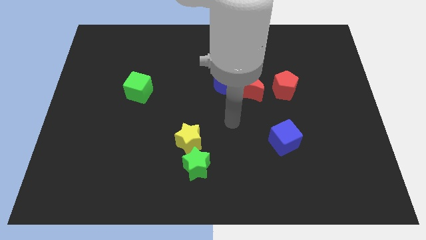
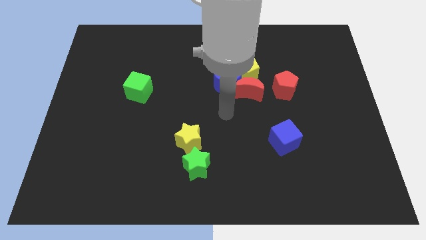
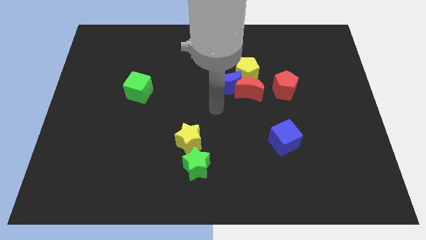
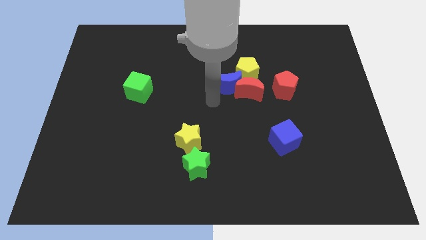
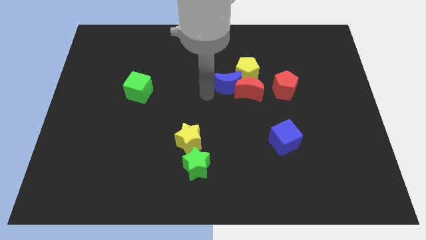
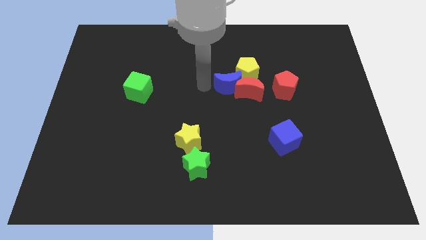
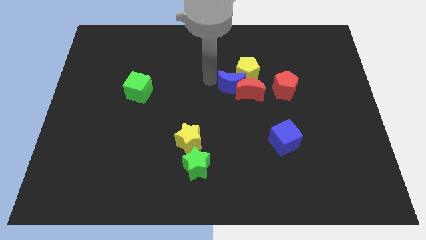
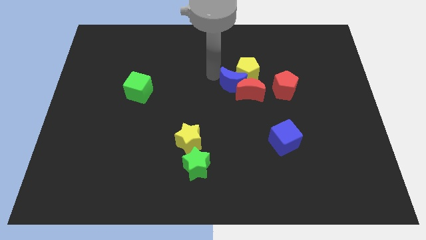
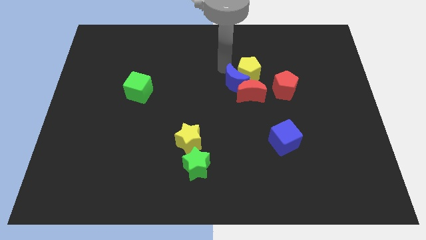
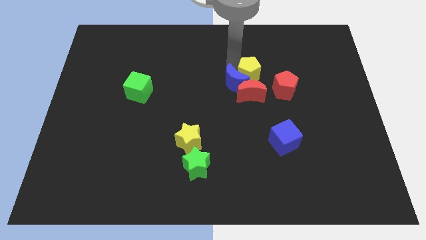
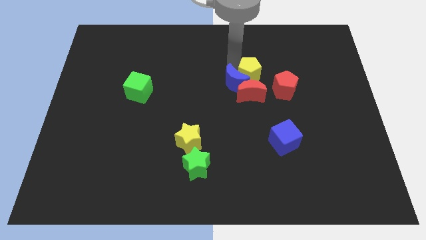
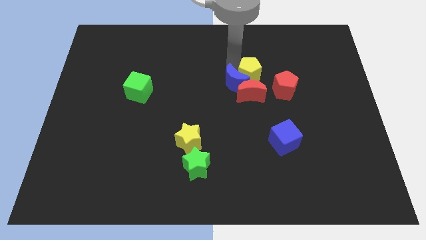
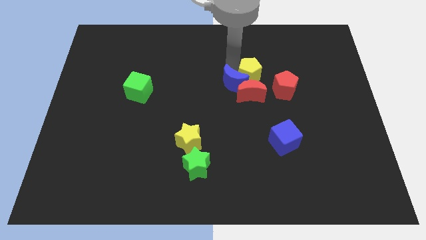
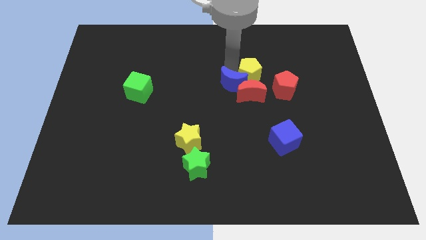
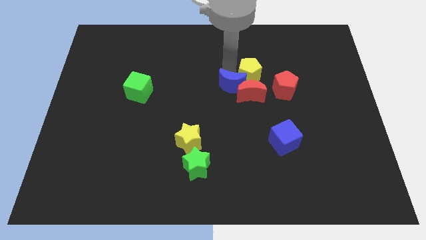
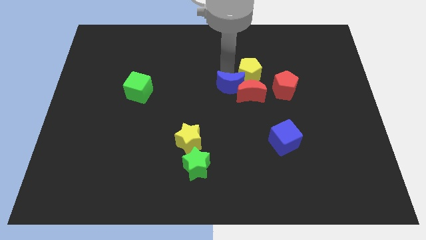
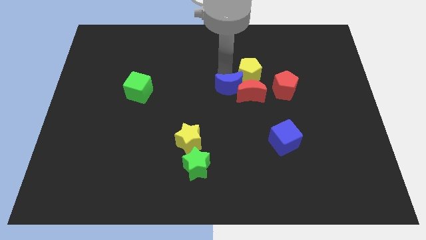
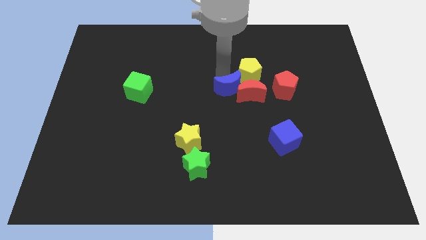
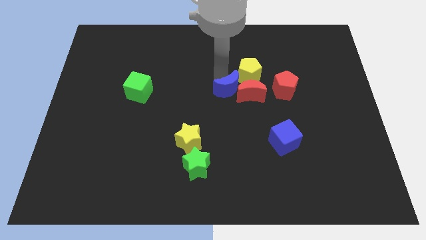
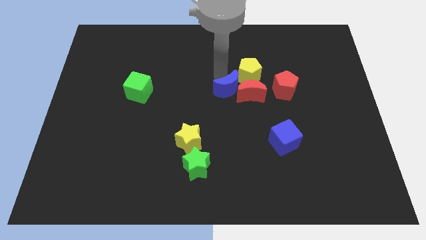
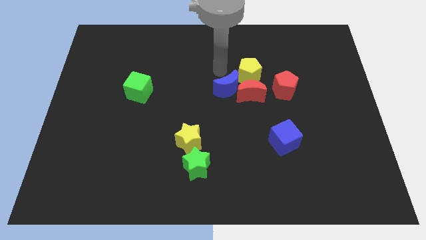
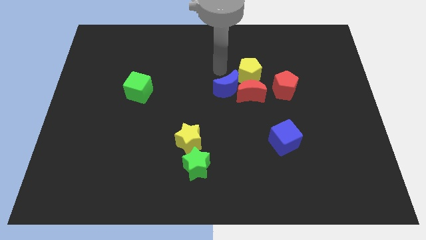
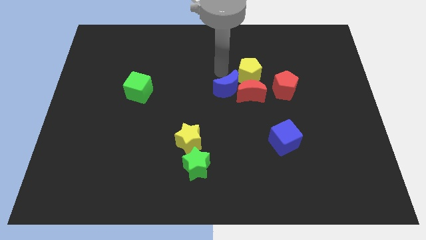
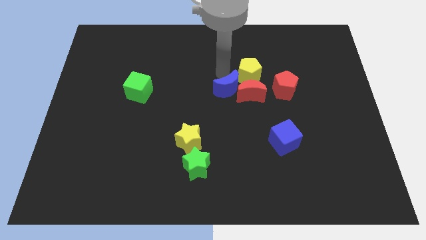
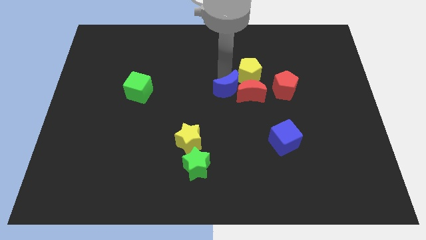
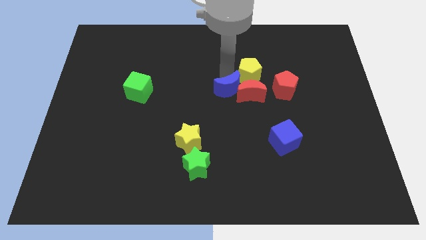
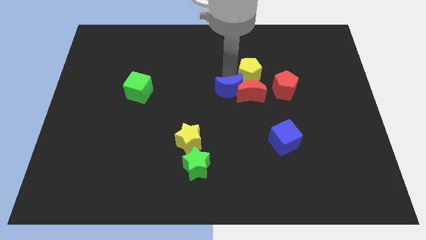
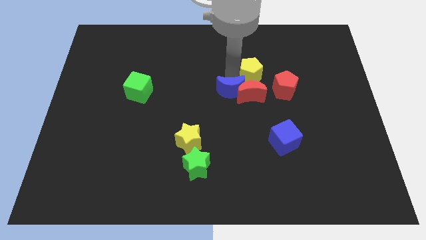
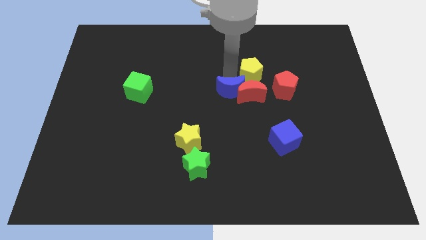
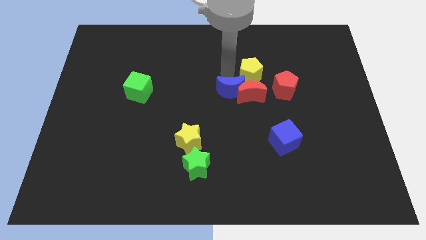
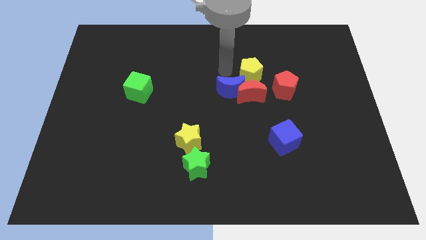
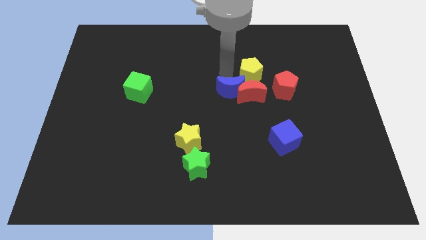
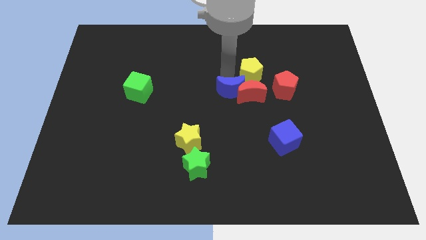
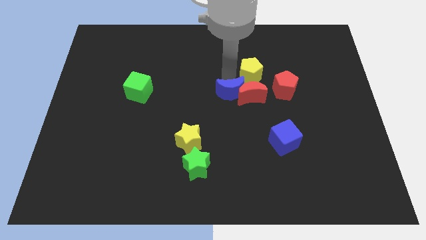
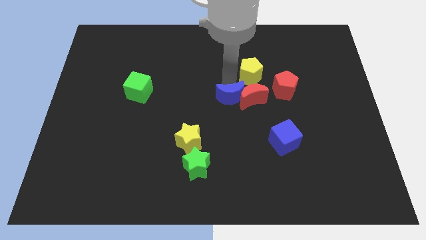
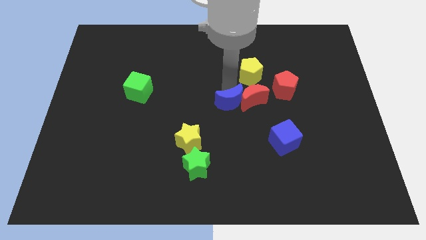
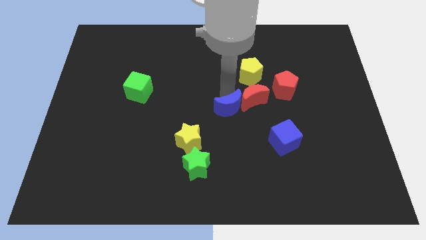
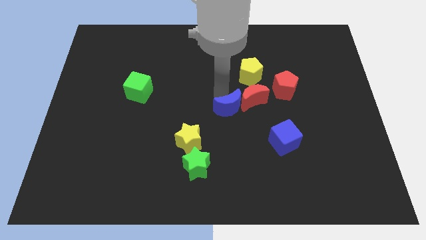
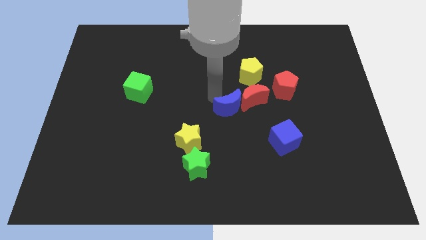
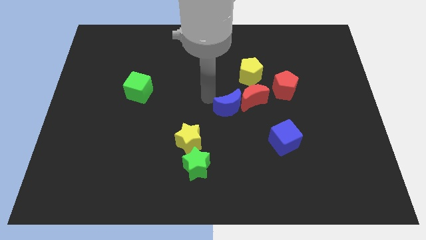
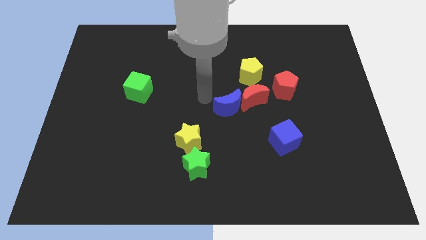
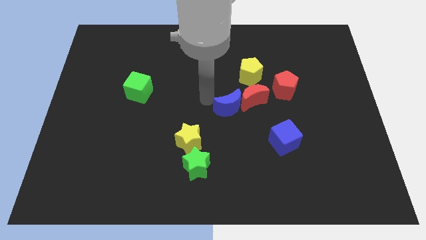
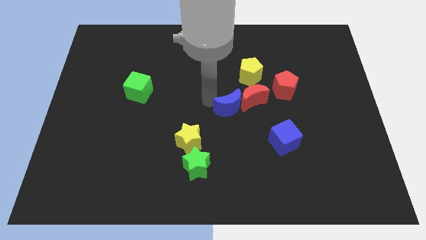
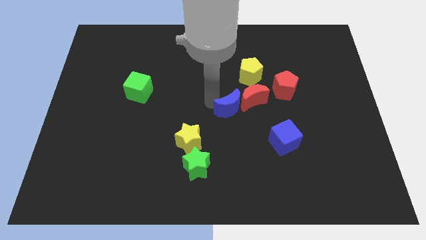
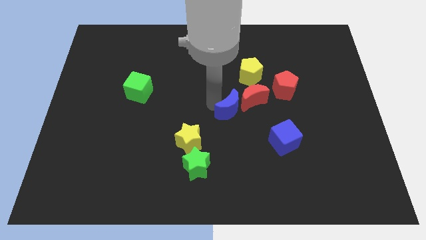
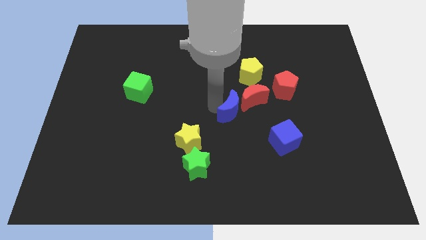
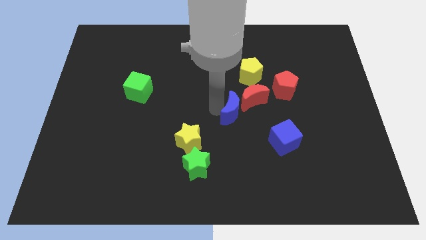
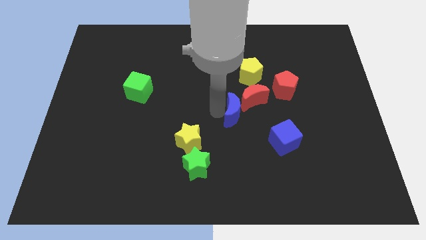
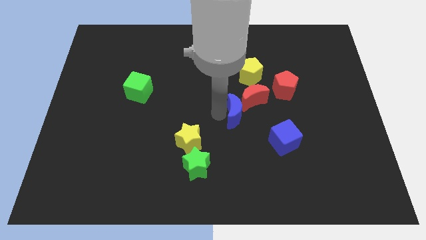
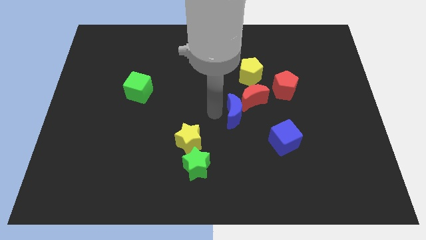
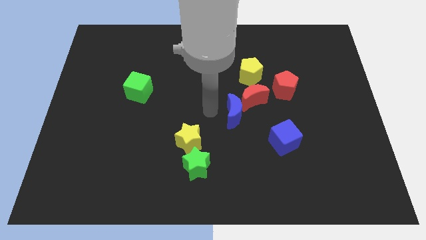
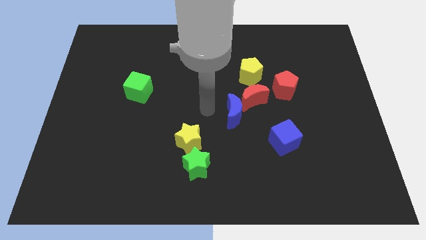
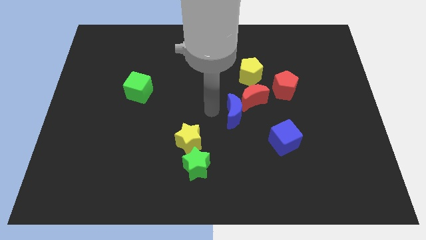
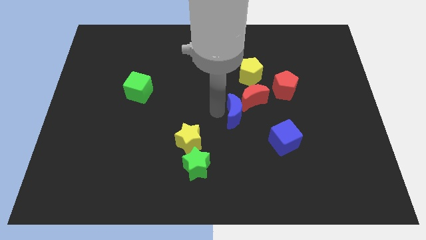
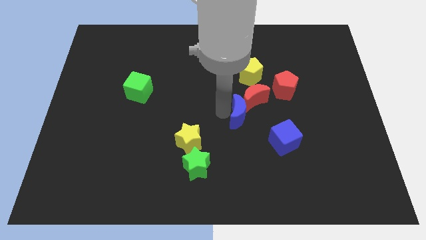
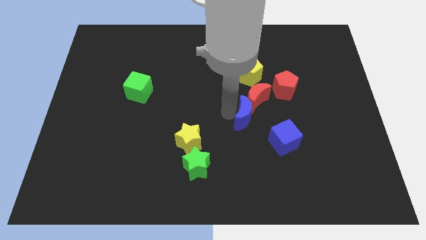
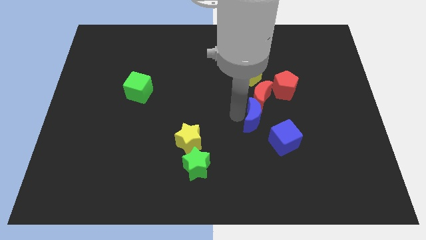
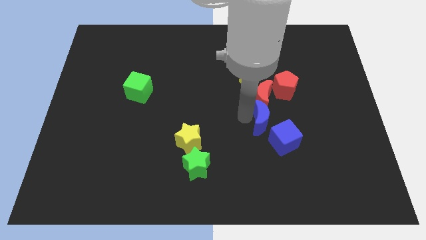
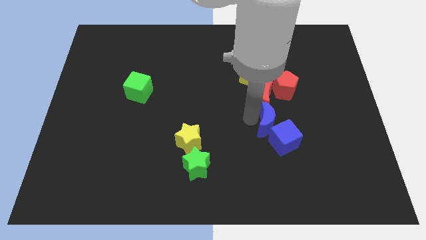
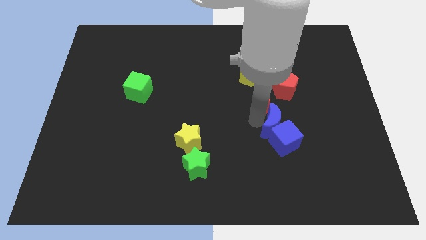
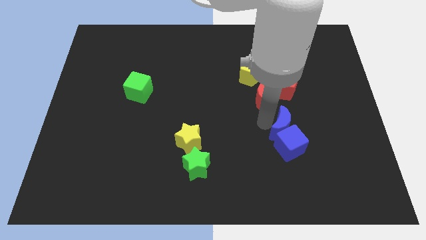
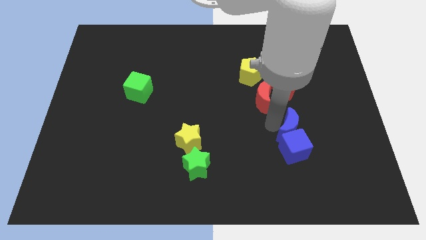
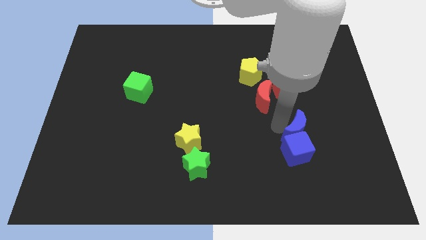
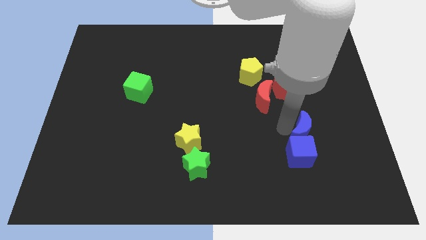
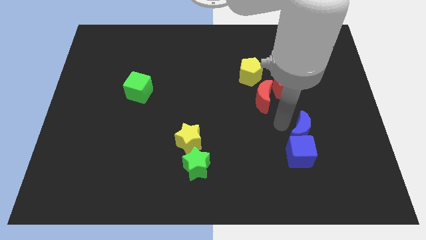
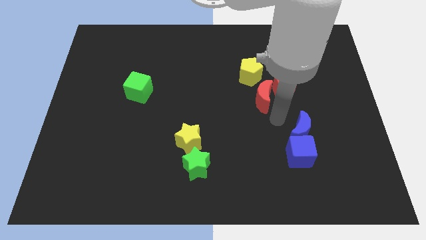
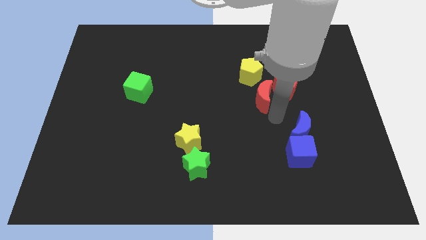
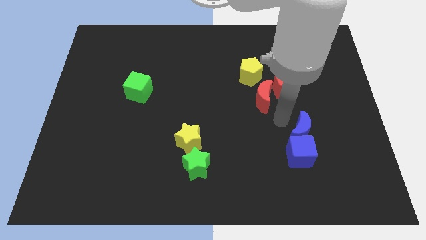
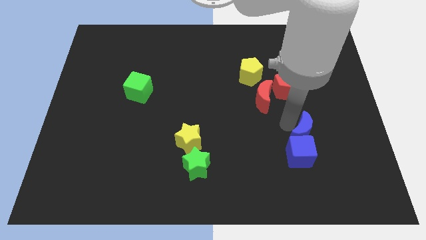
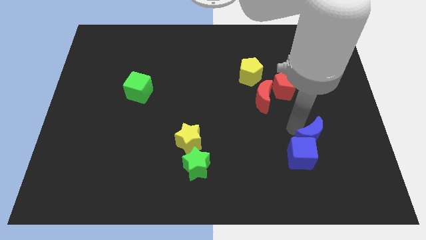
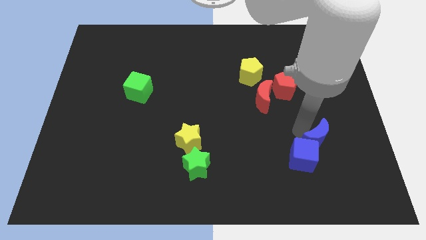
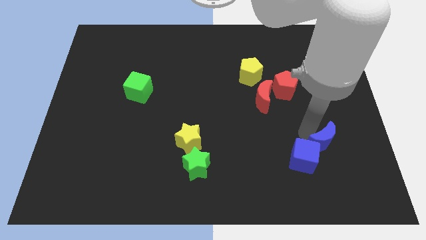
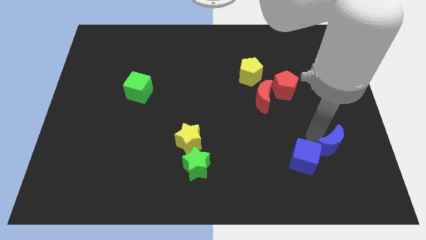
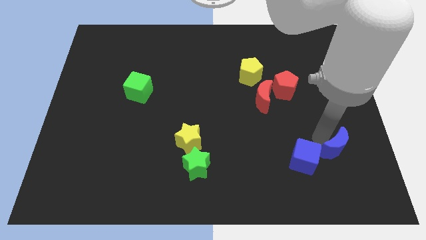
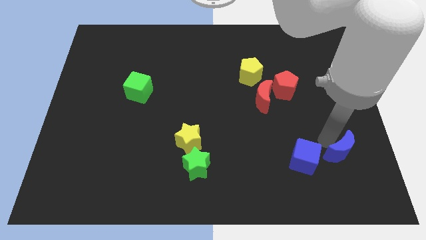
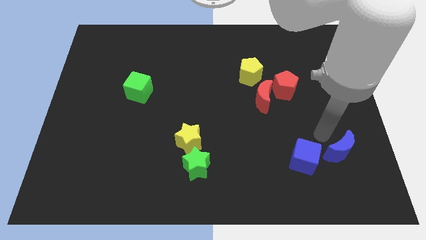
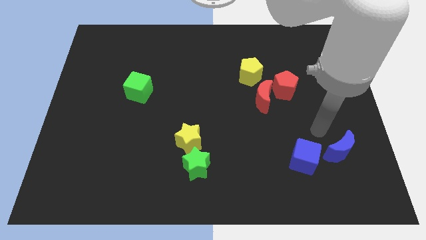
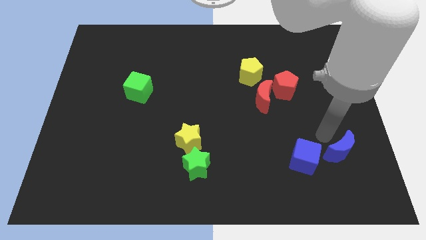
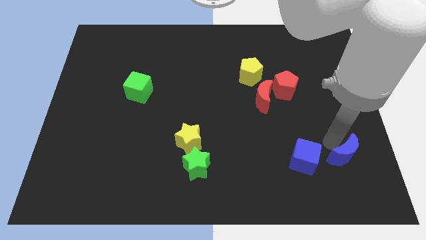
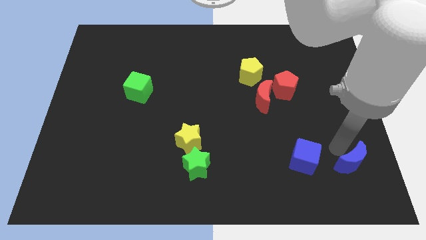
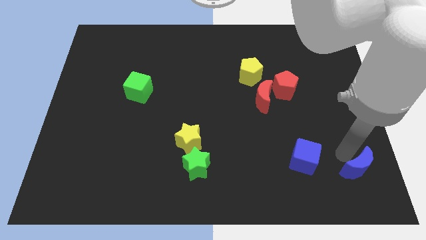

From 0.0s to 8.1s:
slide the blue moon to the bottom right
